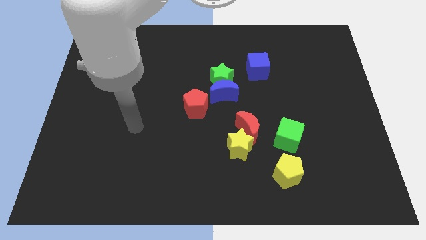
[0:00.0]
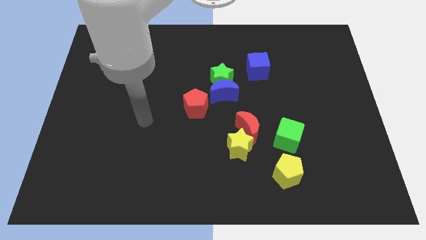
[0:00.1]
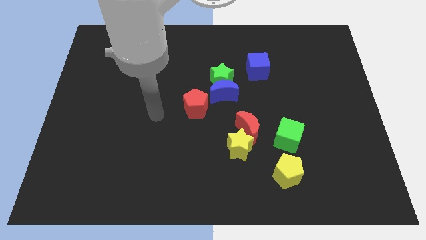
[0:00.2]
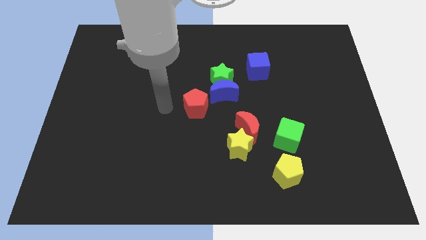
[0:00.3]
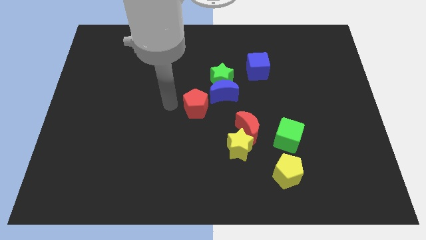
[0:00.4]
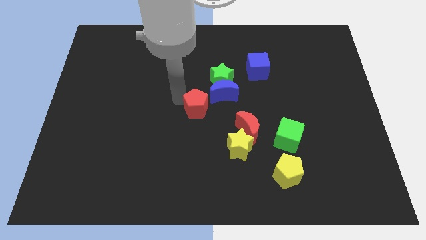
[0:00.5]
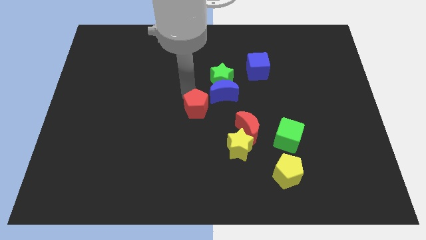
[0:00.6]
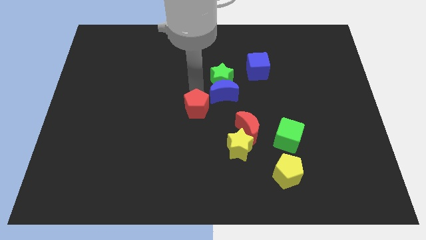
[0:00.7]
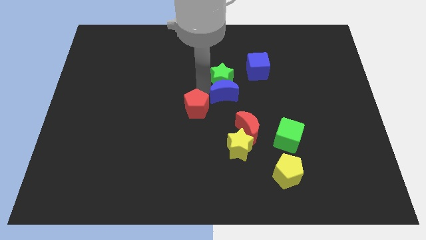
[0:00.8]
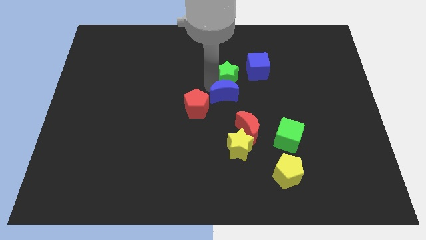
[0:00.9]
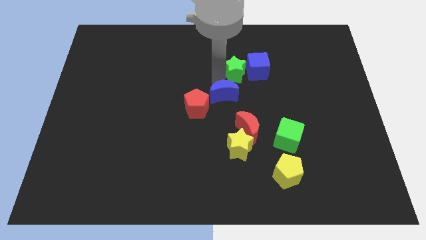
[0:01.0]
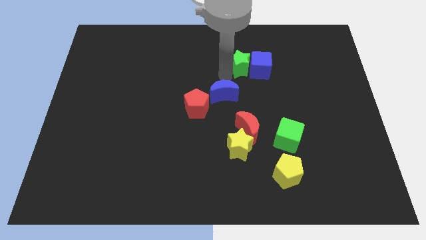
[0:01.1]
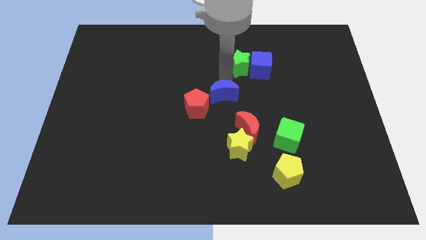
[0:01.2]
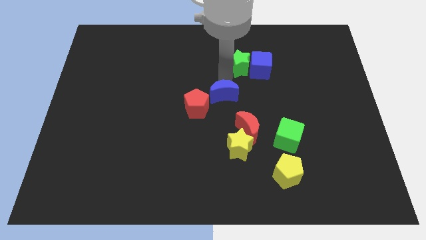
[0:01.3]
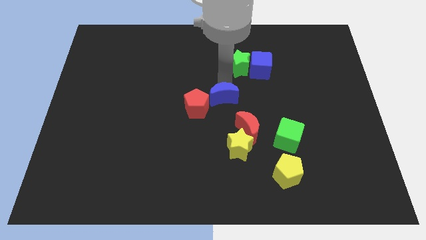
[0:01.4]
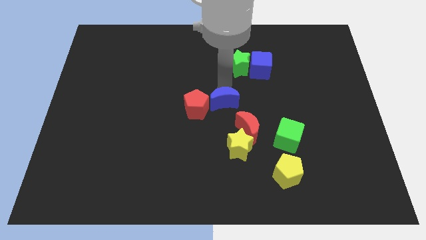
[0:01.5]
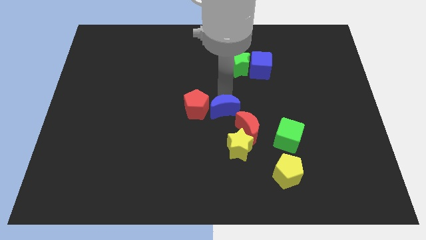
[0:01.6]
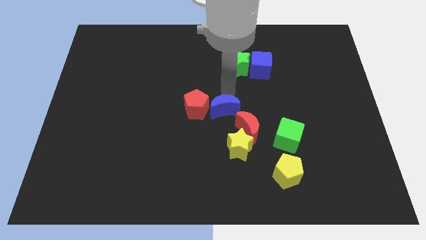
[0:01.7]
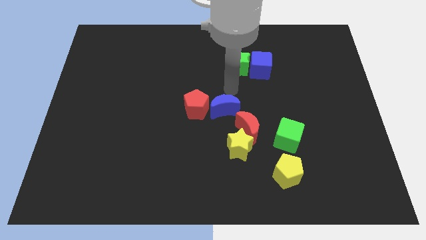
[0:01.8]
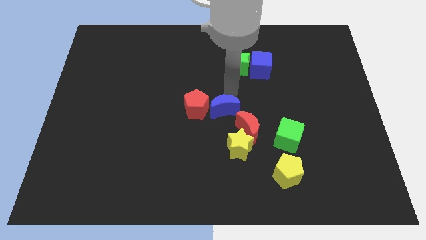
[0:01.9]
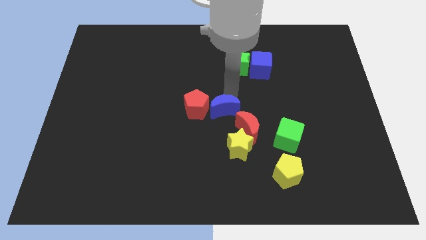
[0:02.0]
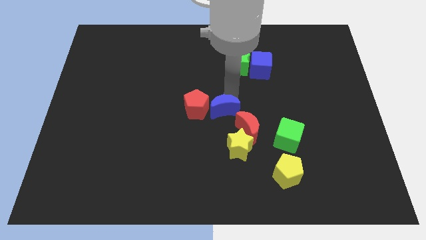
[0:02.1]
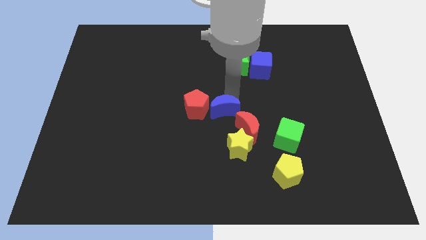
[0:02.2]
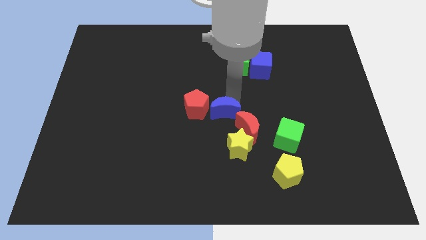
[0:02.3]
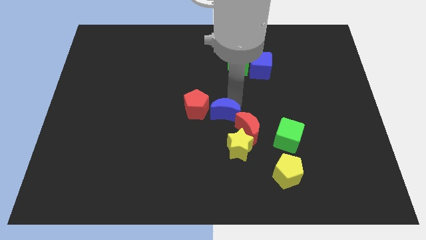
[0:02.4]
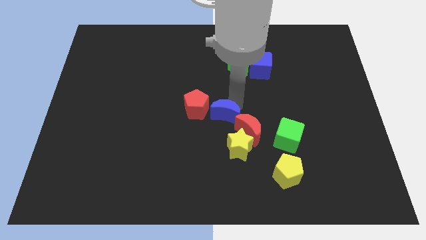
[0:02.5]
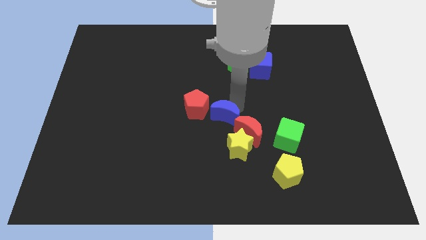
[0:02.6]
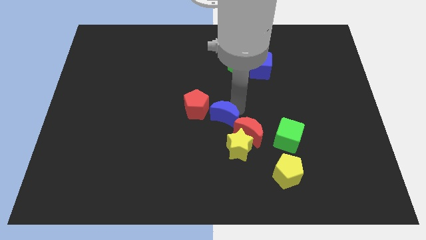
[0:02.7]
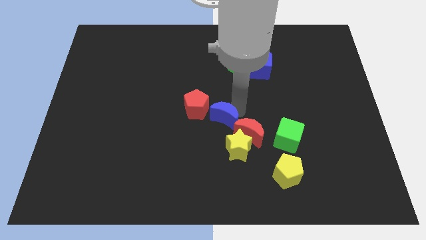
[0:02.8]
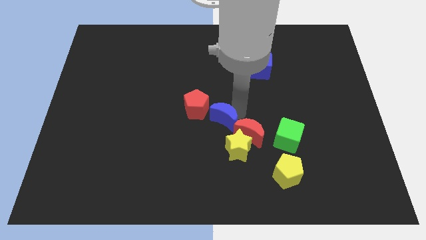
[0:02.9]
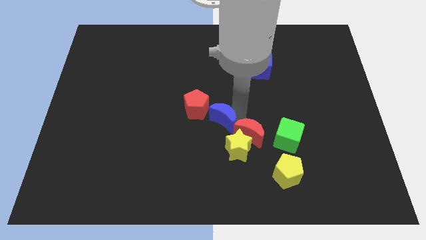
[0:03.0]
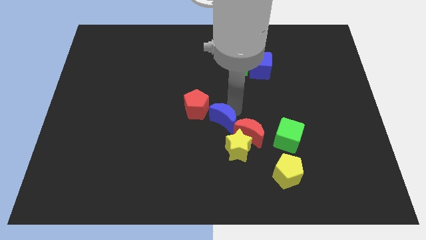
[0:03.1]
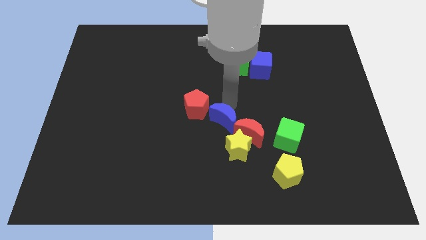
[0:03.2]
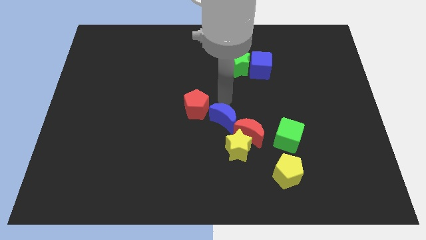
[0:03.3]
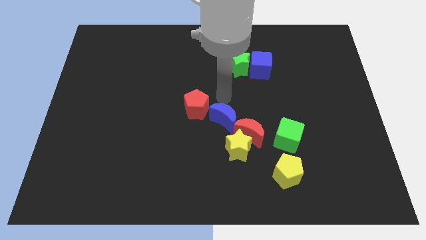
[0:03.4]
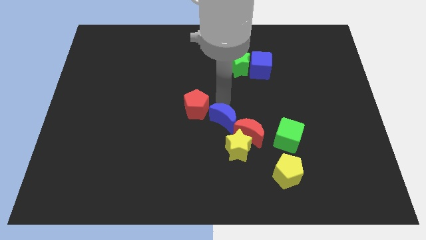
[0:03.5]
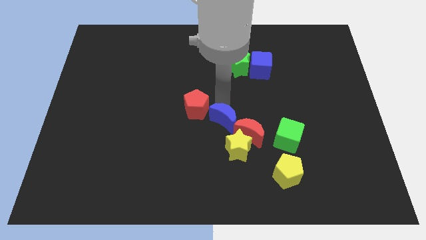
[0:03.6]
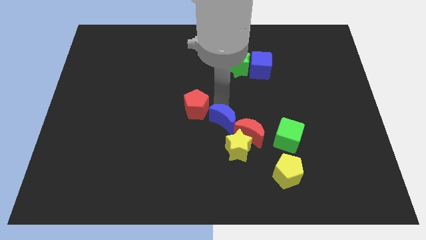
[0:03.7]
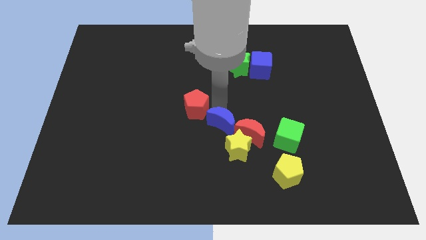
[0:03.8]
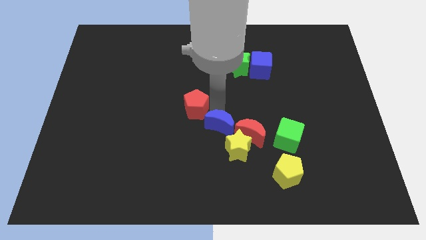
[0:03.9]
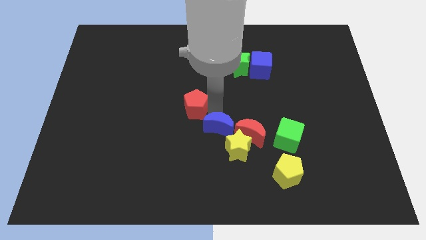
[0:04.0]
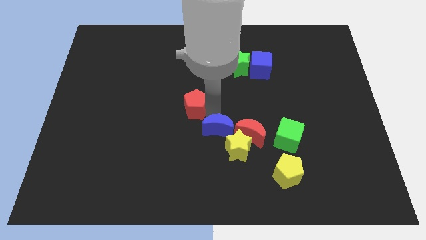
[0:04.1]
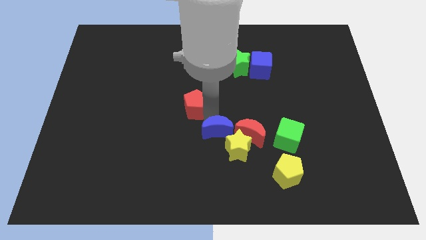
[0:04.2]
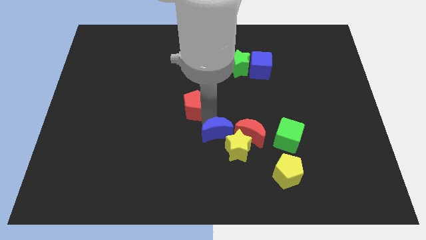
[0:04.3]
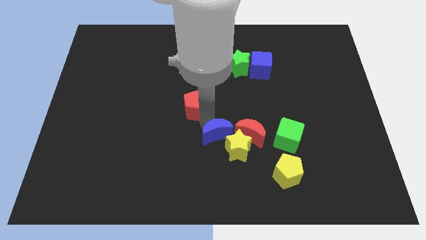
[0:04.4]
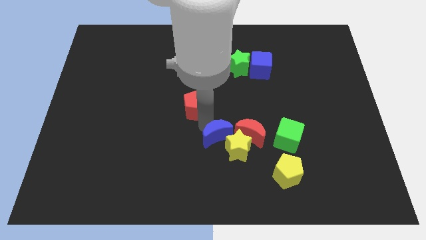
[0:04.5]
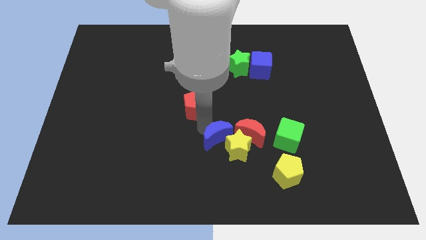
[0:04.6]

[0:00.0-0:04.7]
move the blue moon to the bottom left side of the red moon

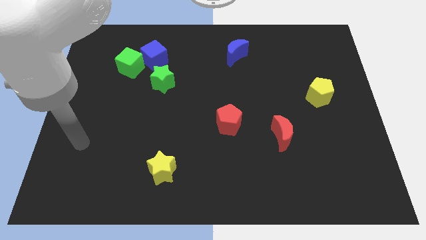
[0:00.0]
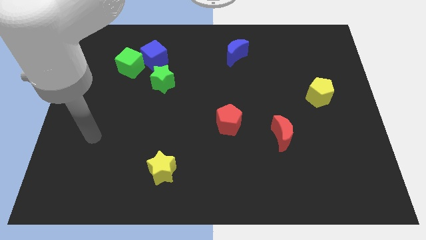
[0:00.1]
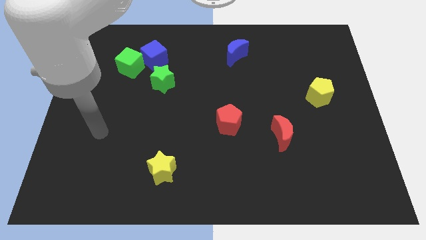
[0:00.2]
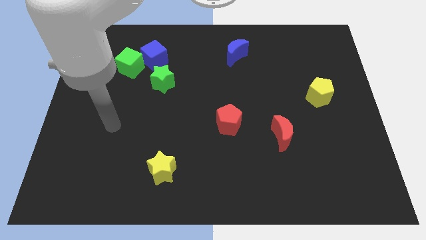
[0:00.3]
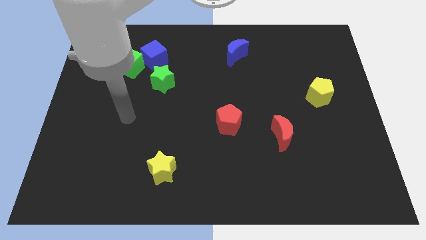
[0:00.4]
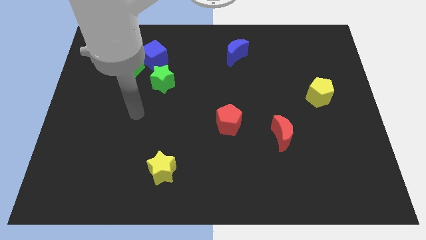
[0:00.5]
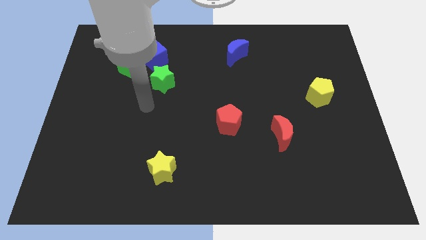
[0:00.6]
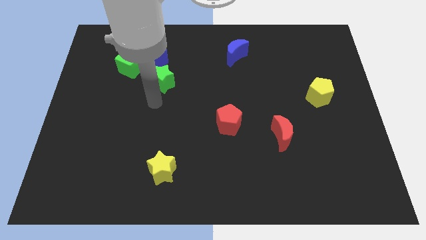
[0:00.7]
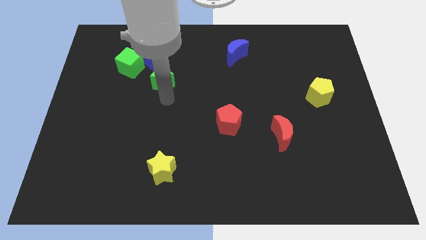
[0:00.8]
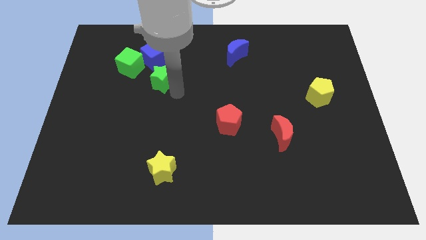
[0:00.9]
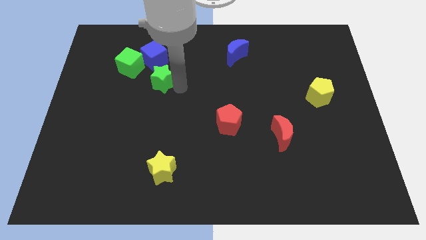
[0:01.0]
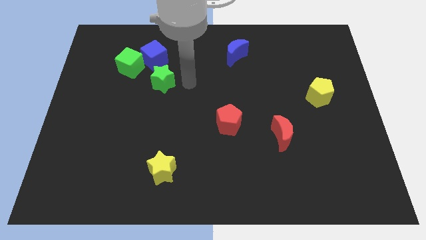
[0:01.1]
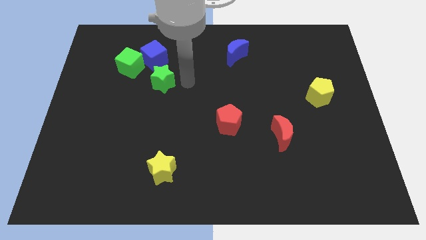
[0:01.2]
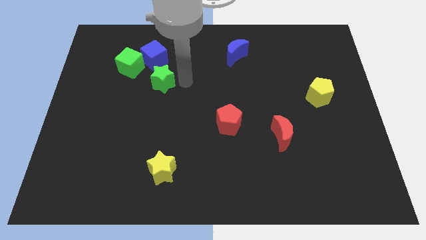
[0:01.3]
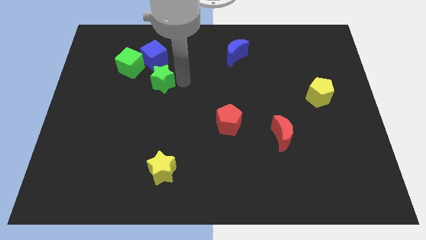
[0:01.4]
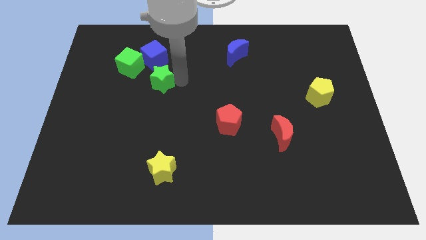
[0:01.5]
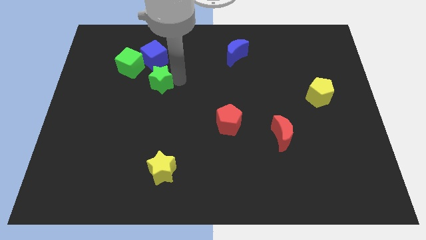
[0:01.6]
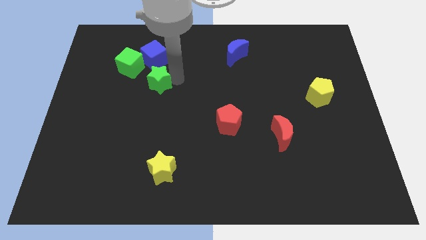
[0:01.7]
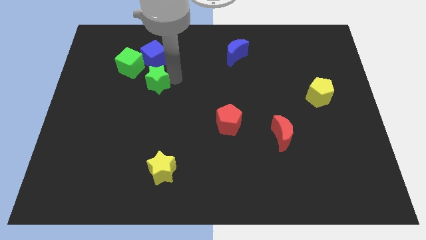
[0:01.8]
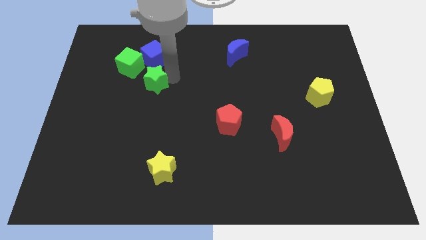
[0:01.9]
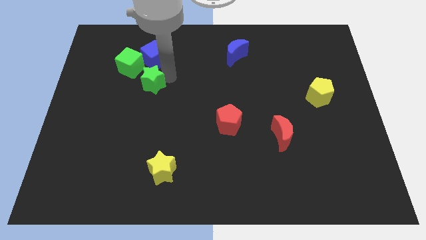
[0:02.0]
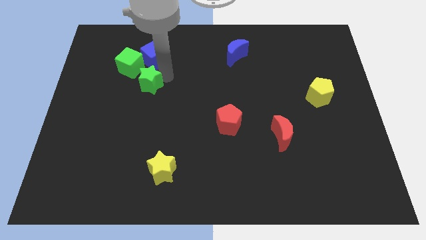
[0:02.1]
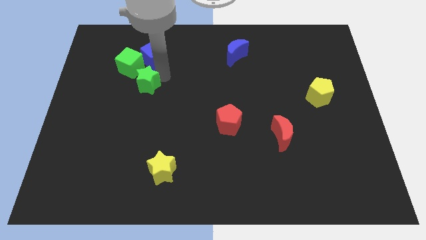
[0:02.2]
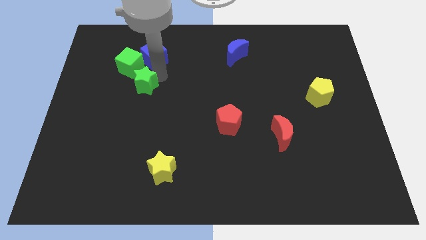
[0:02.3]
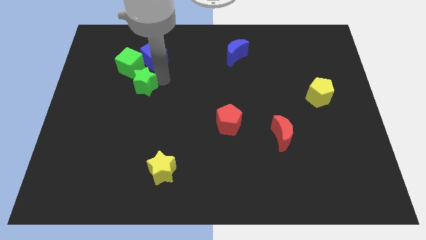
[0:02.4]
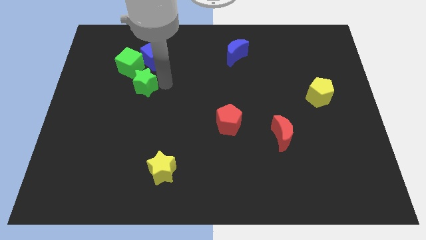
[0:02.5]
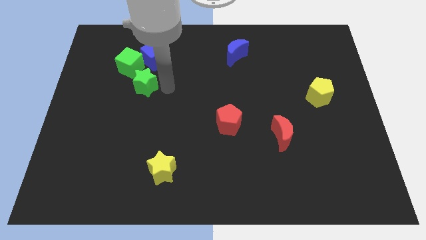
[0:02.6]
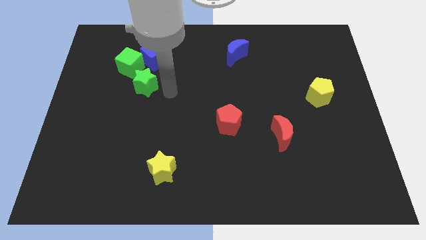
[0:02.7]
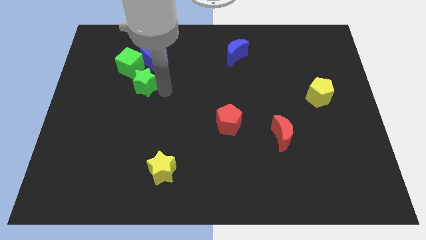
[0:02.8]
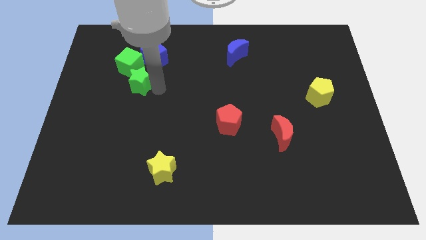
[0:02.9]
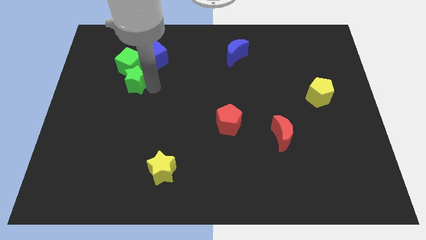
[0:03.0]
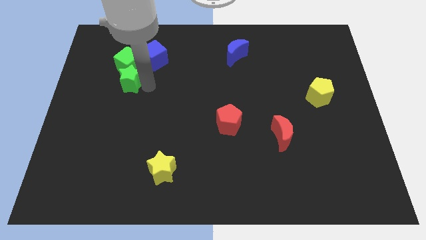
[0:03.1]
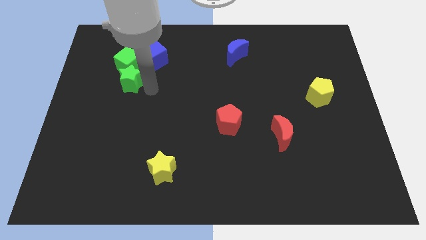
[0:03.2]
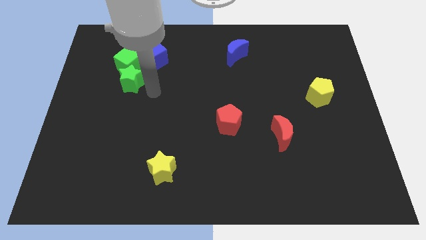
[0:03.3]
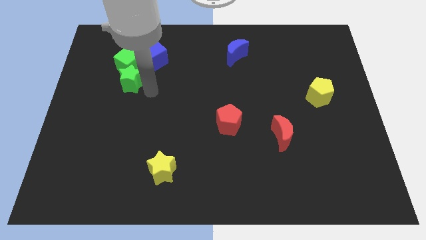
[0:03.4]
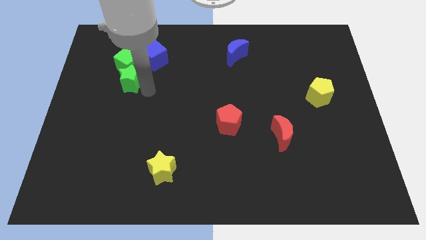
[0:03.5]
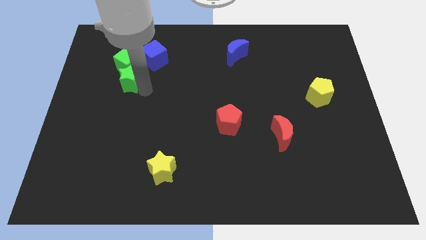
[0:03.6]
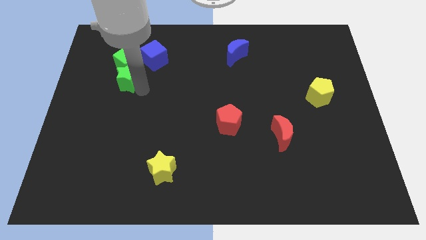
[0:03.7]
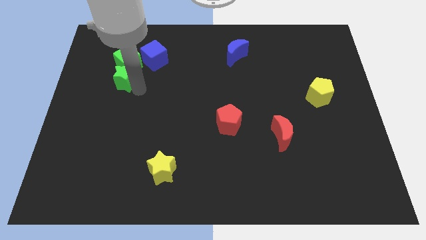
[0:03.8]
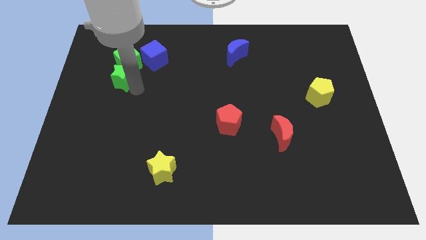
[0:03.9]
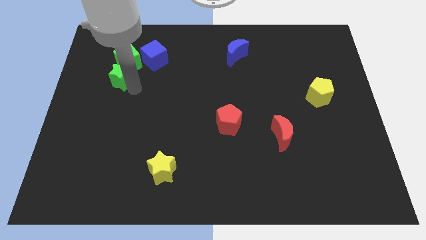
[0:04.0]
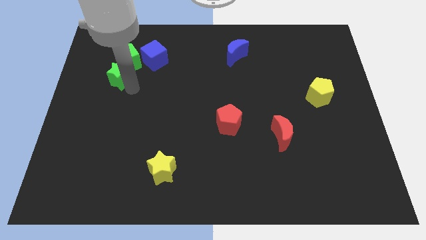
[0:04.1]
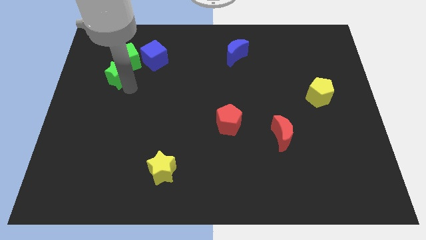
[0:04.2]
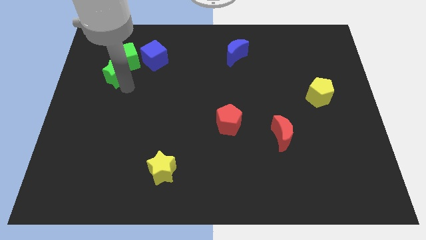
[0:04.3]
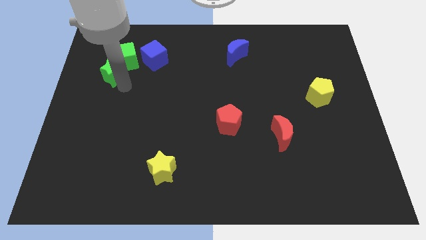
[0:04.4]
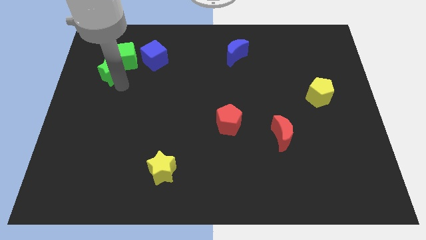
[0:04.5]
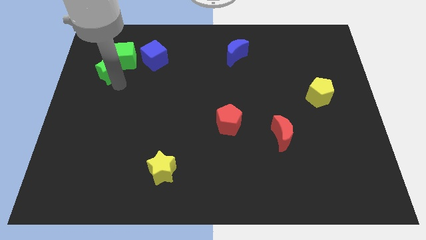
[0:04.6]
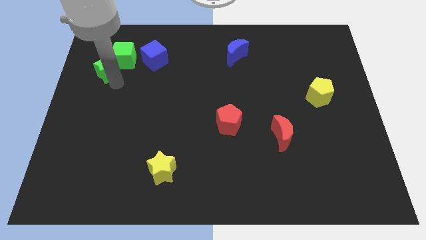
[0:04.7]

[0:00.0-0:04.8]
move the green star left of the blue cube
